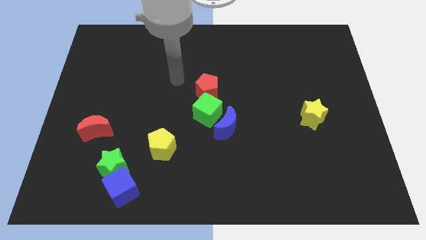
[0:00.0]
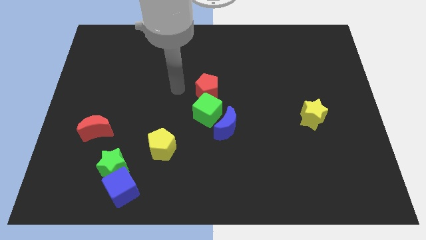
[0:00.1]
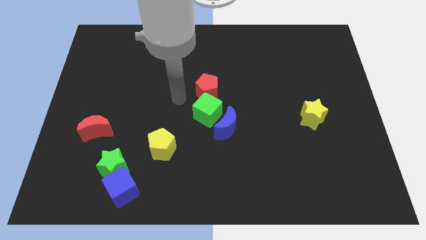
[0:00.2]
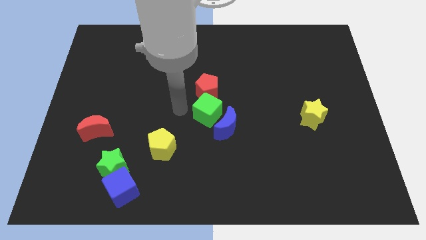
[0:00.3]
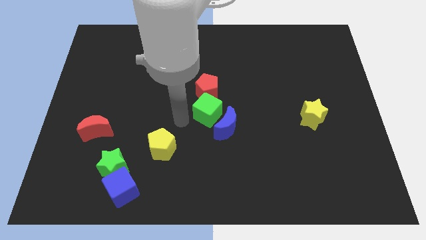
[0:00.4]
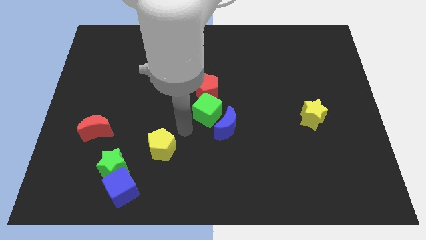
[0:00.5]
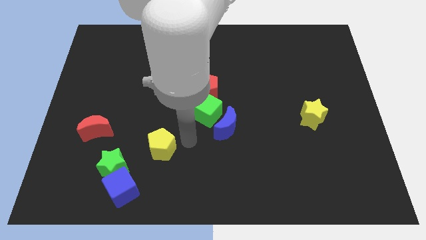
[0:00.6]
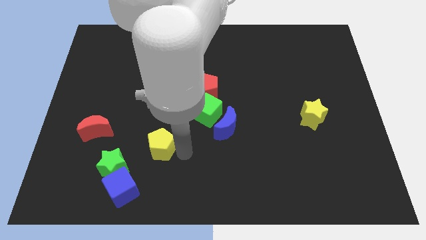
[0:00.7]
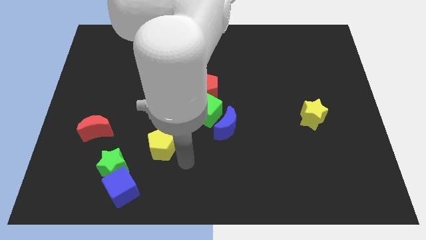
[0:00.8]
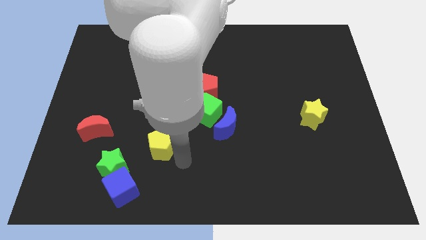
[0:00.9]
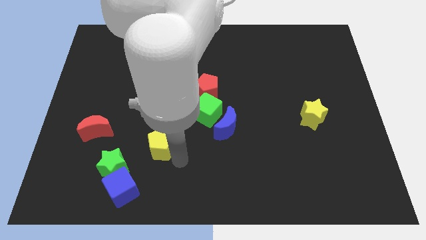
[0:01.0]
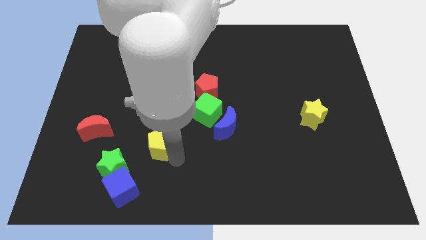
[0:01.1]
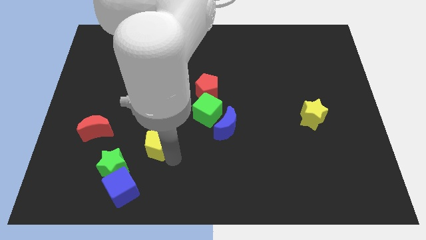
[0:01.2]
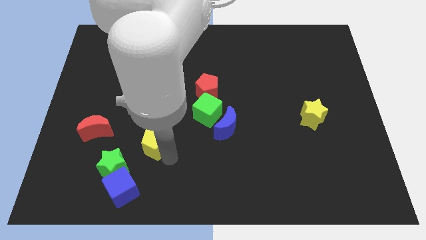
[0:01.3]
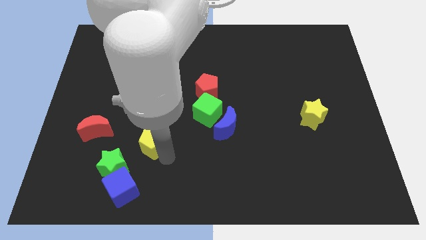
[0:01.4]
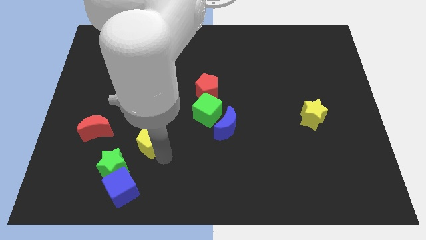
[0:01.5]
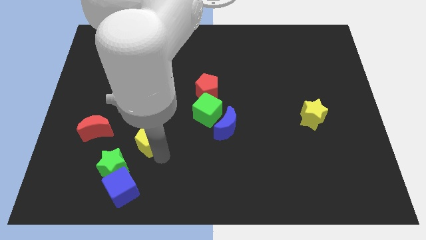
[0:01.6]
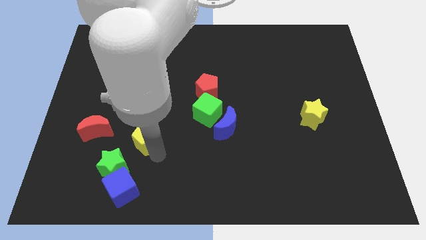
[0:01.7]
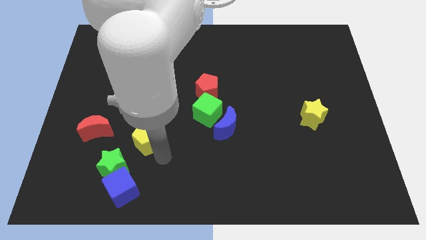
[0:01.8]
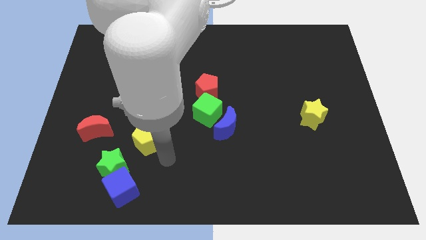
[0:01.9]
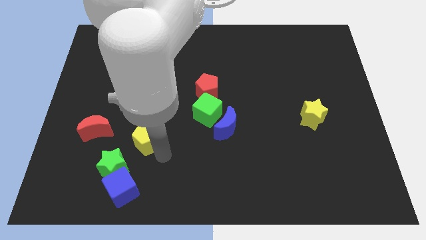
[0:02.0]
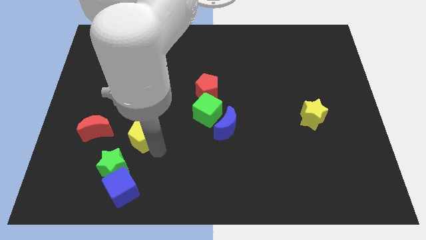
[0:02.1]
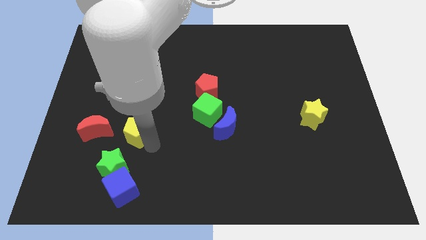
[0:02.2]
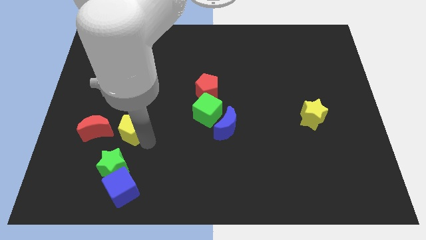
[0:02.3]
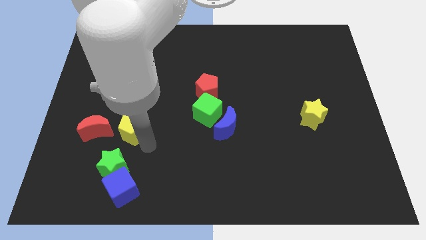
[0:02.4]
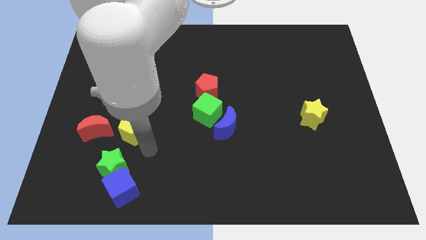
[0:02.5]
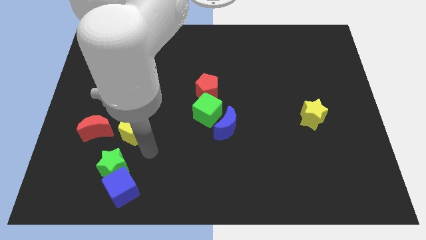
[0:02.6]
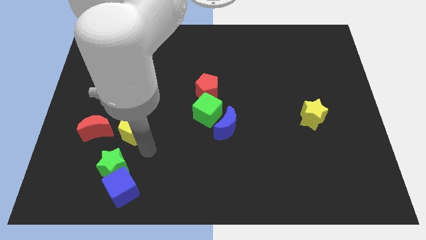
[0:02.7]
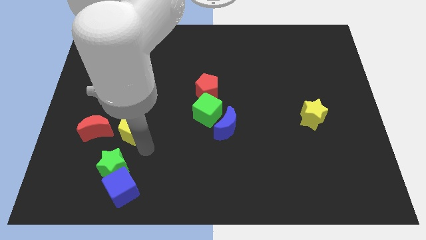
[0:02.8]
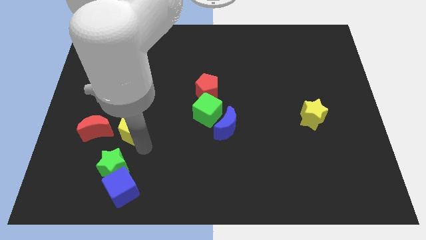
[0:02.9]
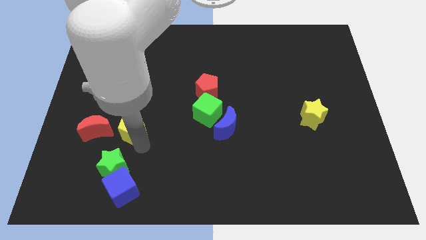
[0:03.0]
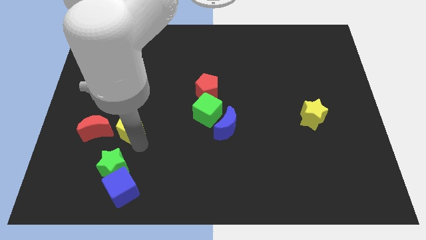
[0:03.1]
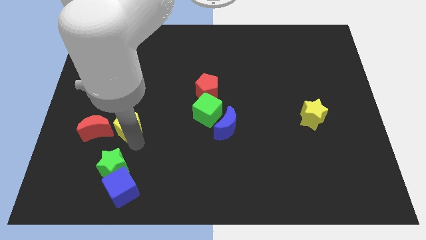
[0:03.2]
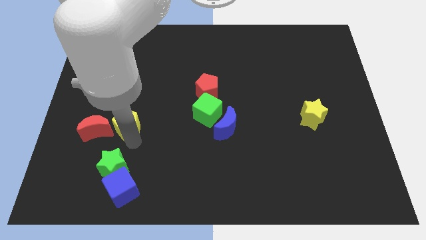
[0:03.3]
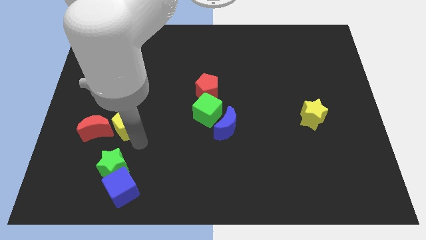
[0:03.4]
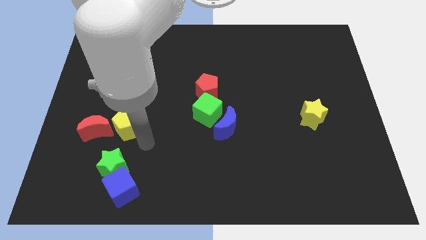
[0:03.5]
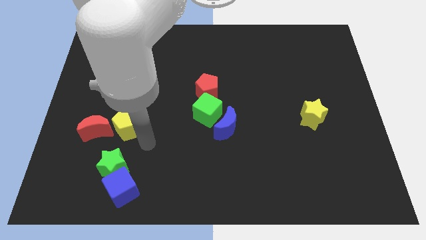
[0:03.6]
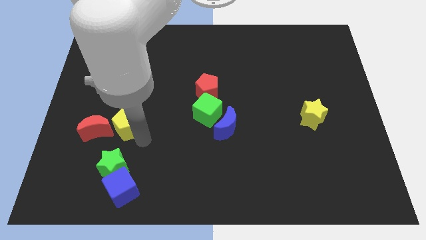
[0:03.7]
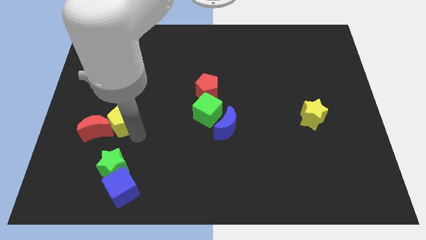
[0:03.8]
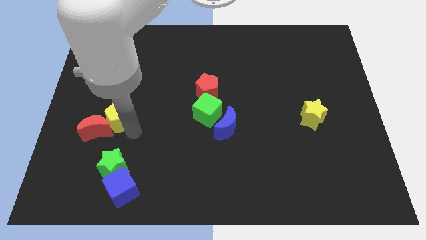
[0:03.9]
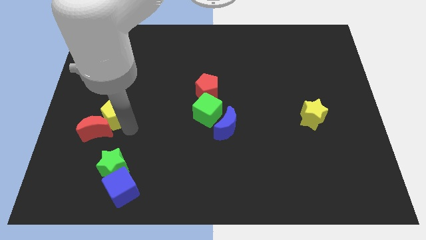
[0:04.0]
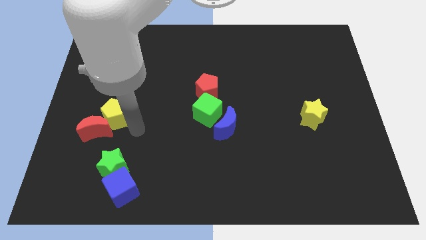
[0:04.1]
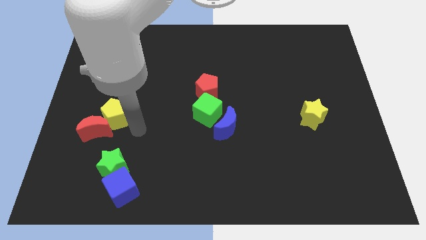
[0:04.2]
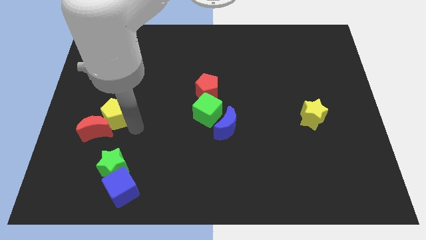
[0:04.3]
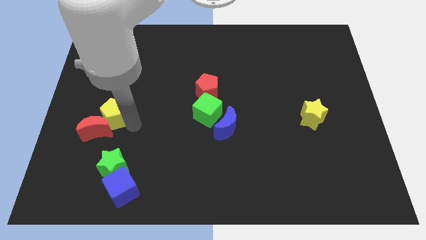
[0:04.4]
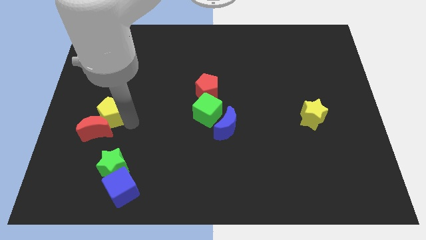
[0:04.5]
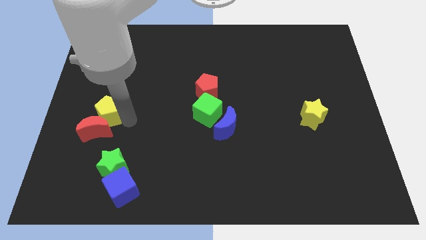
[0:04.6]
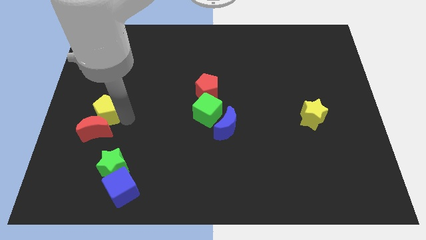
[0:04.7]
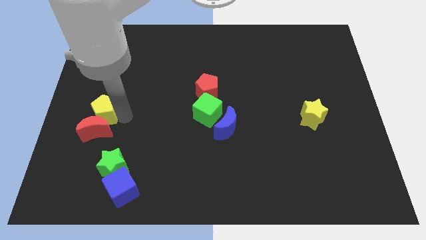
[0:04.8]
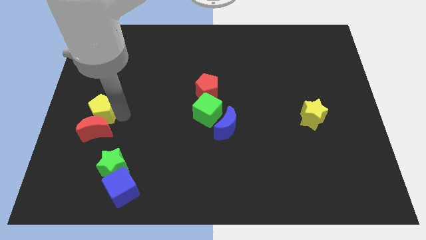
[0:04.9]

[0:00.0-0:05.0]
move the yellow pentagon to the left side

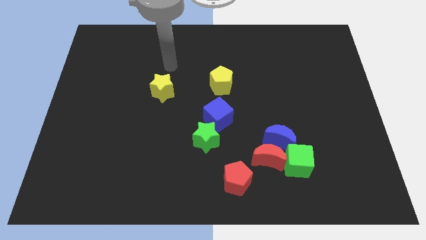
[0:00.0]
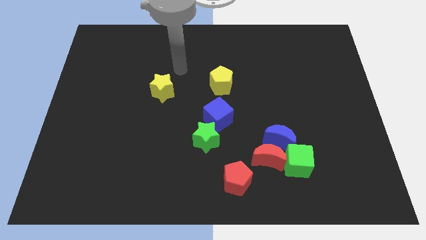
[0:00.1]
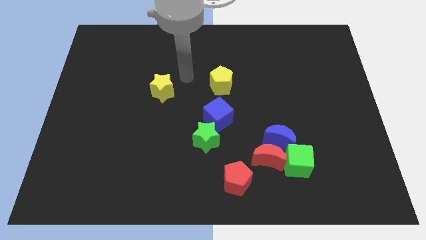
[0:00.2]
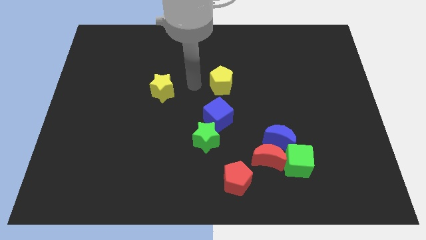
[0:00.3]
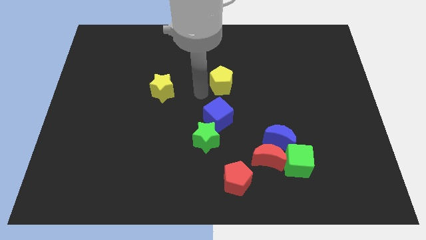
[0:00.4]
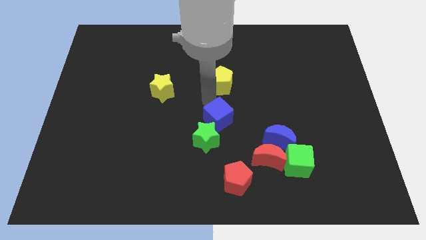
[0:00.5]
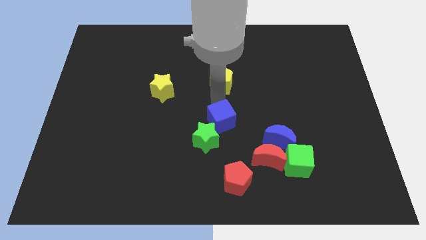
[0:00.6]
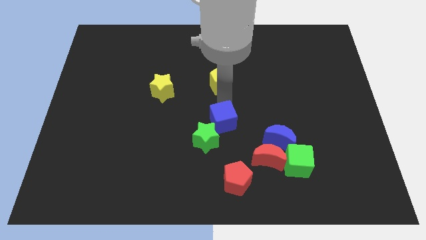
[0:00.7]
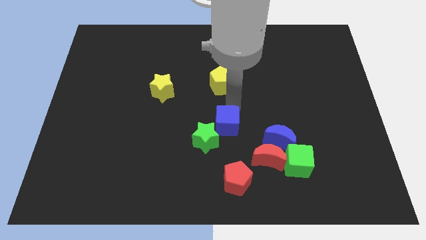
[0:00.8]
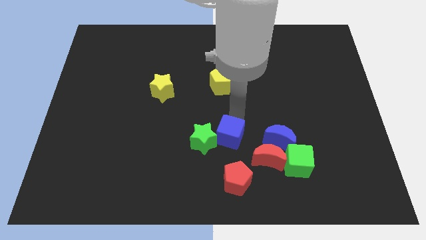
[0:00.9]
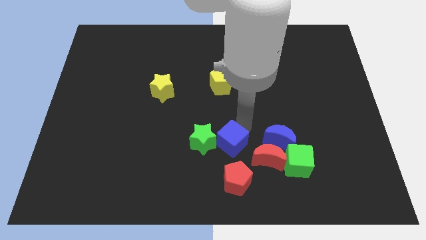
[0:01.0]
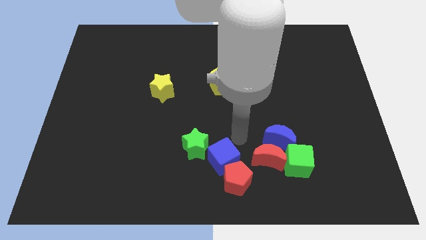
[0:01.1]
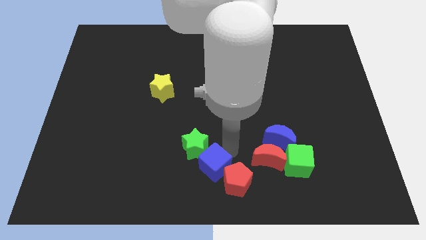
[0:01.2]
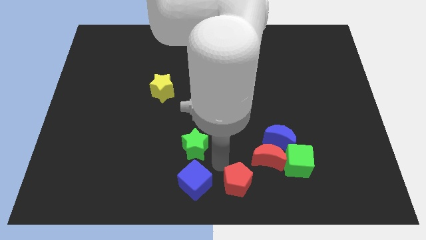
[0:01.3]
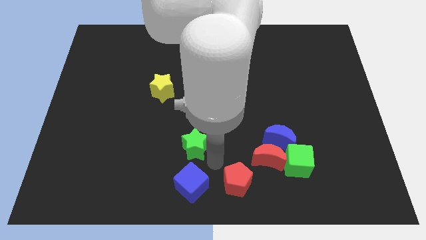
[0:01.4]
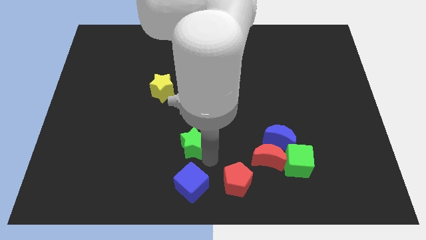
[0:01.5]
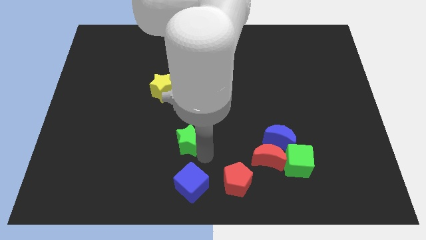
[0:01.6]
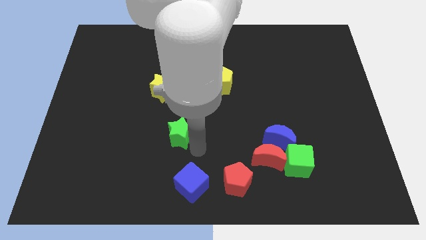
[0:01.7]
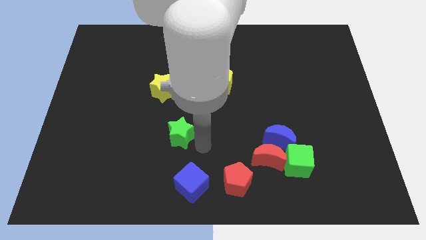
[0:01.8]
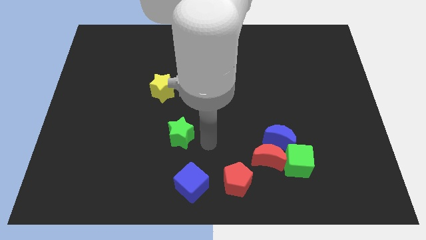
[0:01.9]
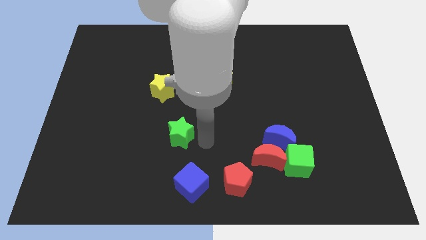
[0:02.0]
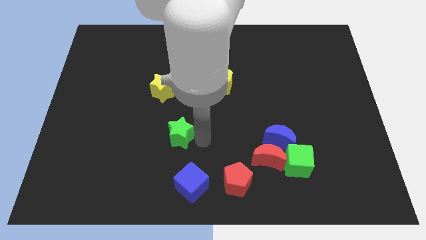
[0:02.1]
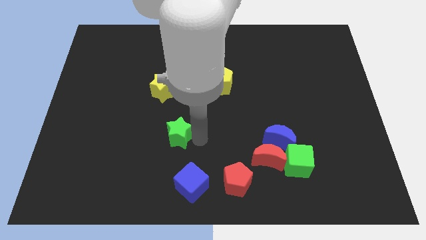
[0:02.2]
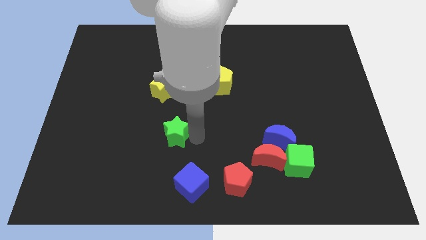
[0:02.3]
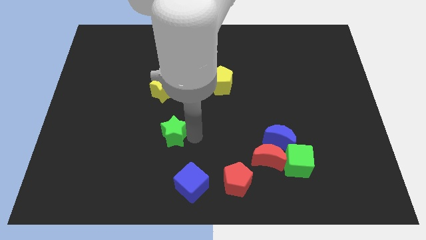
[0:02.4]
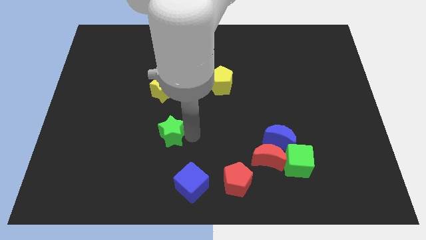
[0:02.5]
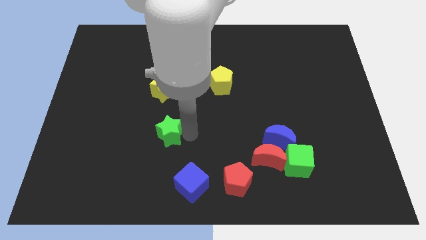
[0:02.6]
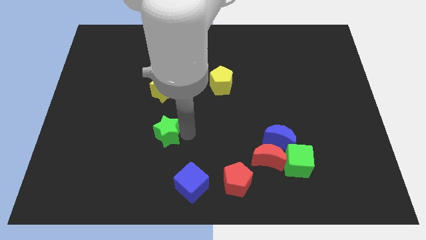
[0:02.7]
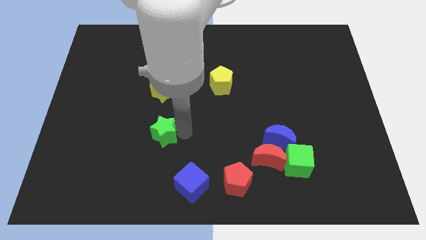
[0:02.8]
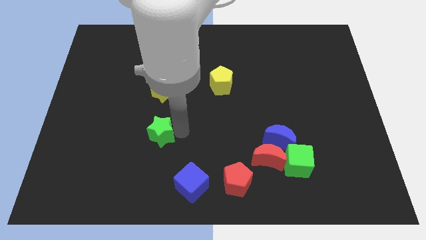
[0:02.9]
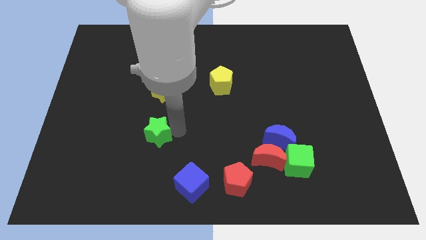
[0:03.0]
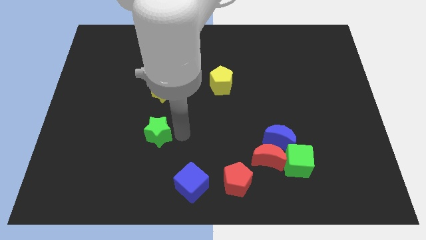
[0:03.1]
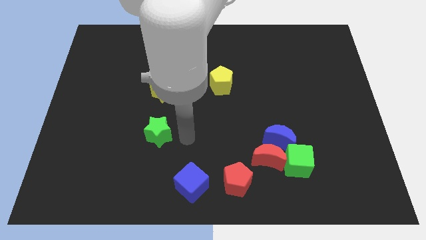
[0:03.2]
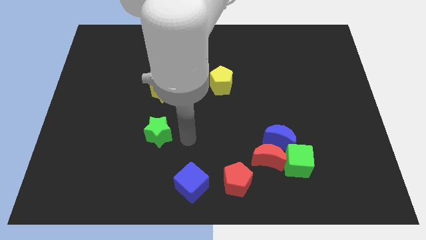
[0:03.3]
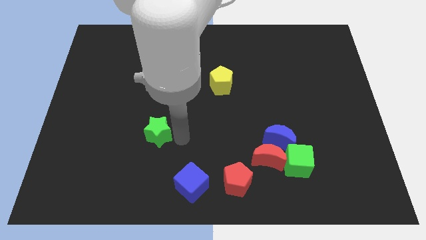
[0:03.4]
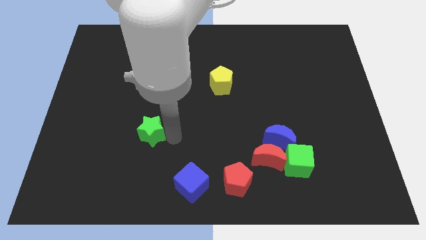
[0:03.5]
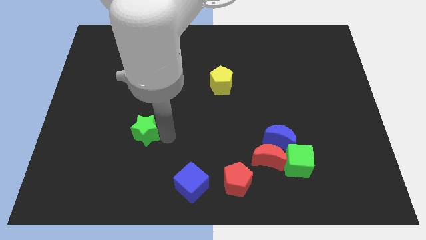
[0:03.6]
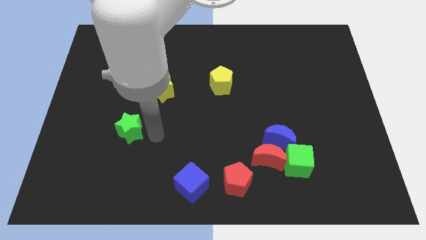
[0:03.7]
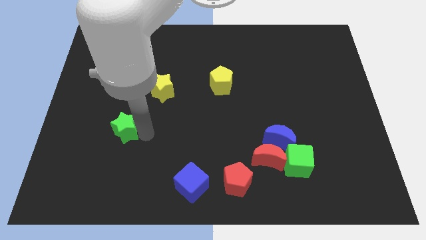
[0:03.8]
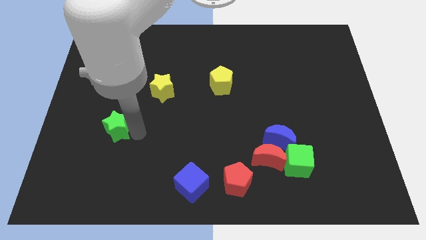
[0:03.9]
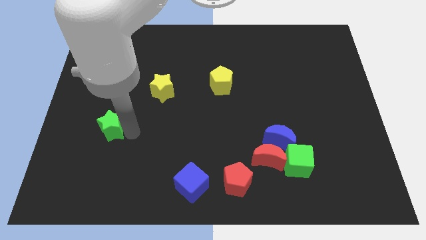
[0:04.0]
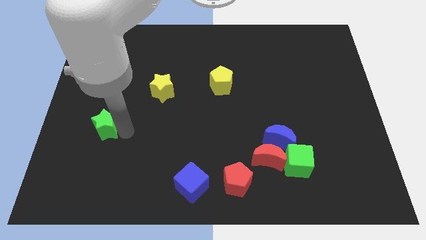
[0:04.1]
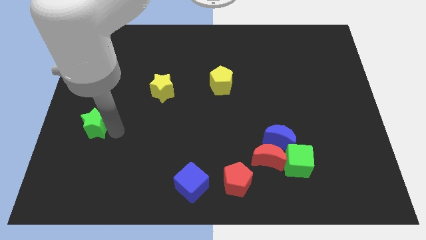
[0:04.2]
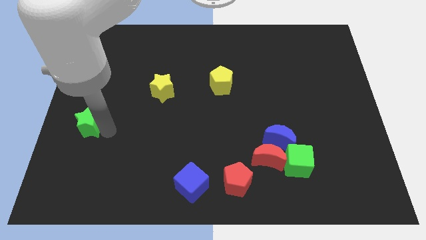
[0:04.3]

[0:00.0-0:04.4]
put the green star to the left side
